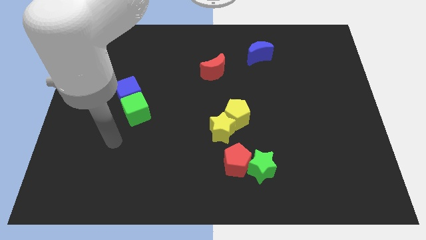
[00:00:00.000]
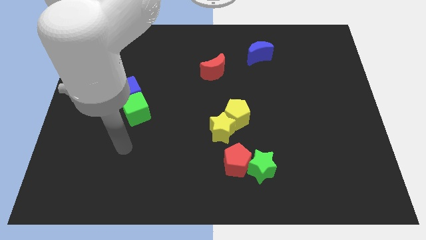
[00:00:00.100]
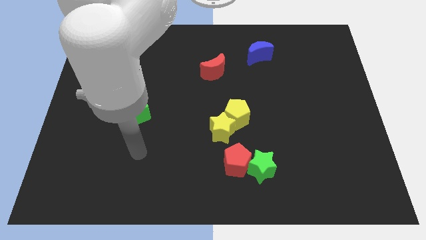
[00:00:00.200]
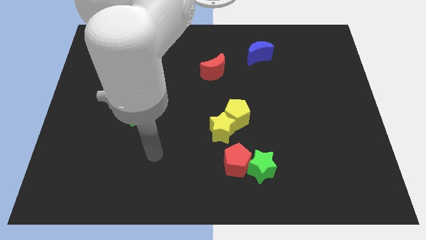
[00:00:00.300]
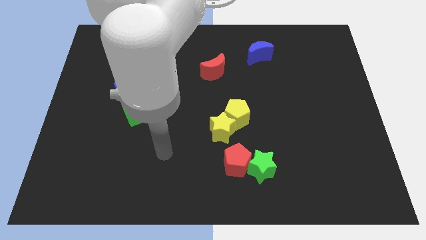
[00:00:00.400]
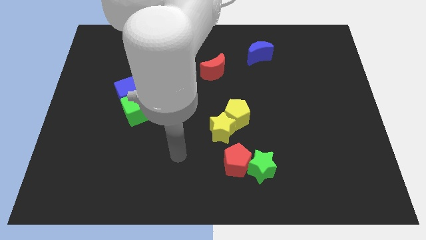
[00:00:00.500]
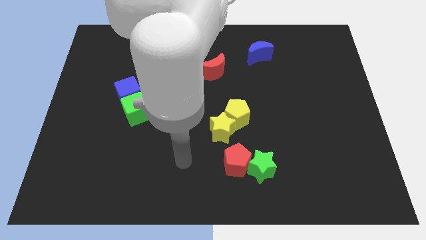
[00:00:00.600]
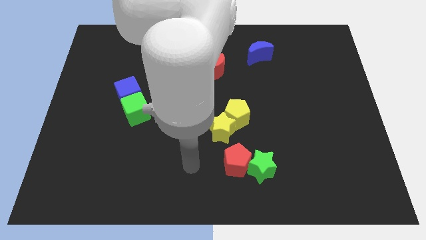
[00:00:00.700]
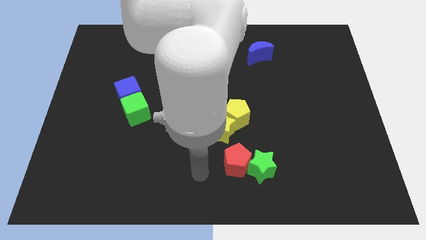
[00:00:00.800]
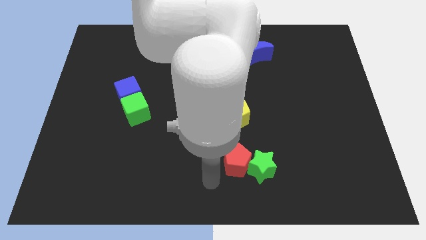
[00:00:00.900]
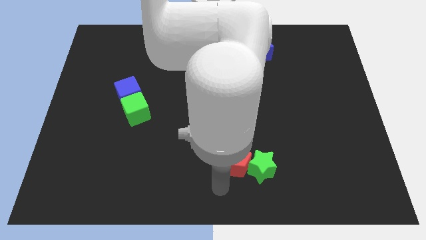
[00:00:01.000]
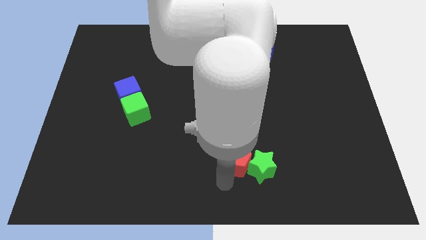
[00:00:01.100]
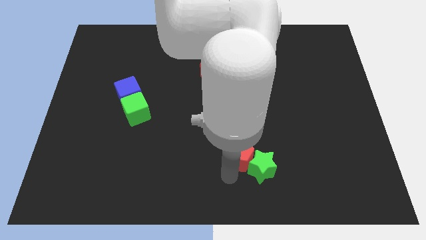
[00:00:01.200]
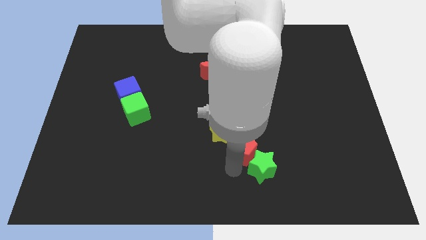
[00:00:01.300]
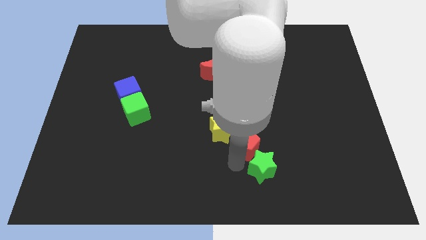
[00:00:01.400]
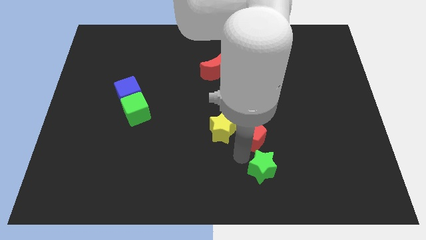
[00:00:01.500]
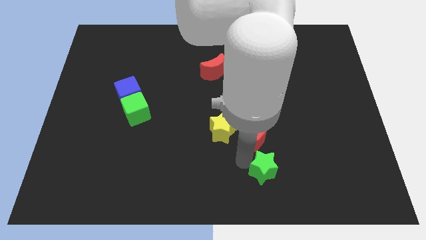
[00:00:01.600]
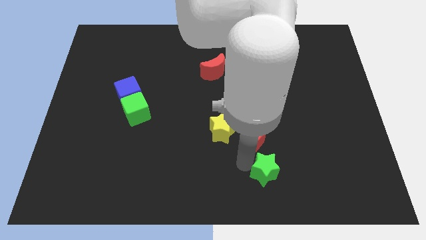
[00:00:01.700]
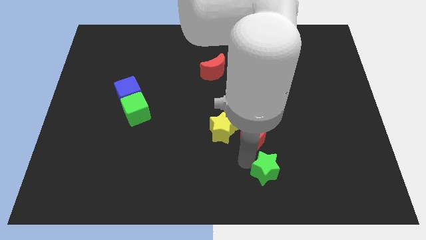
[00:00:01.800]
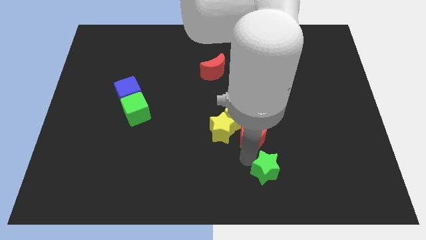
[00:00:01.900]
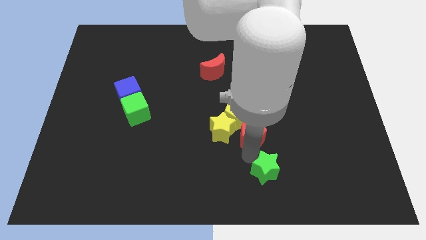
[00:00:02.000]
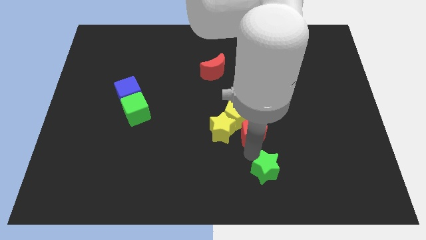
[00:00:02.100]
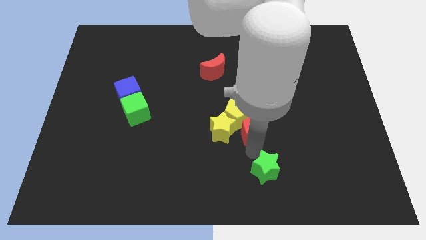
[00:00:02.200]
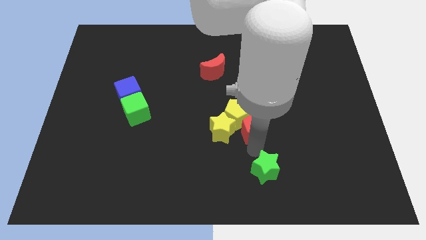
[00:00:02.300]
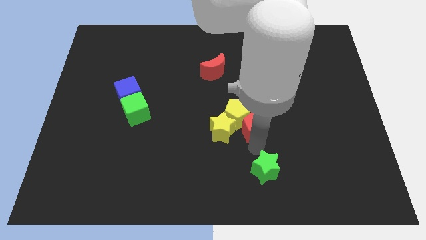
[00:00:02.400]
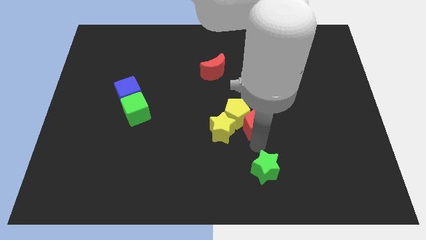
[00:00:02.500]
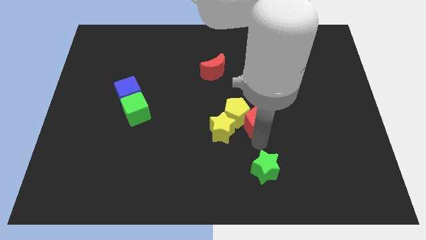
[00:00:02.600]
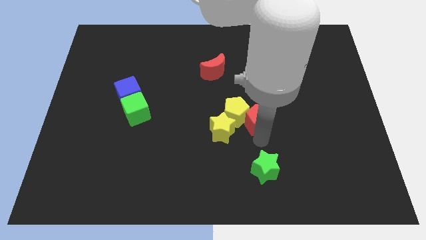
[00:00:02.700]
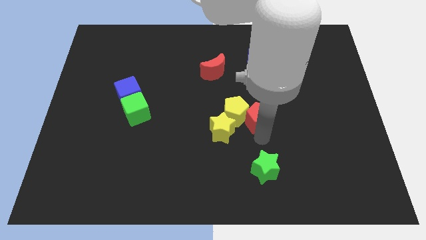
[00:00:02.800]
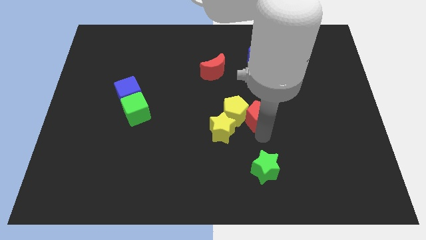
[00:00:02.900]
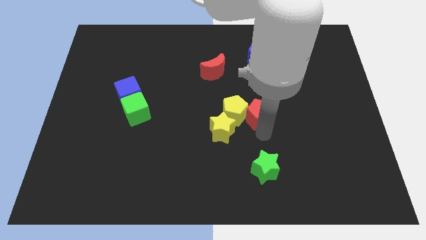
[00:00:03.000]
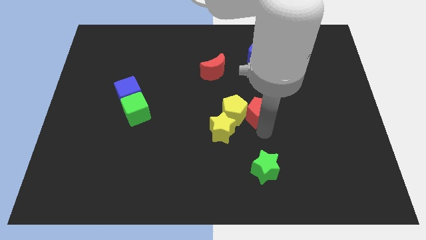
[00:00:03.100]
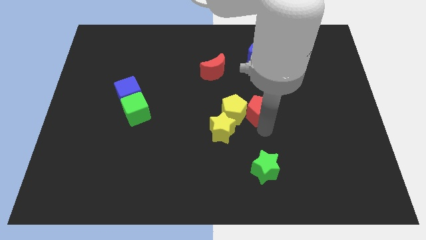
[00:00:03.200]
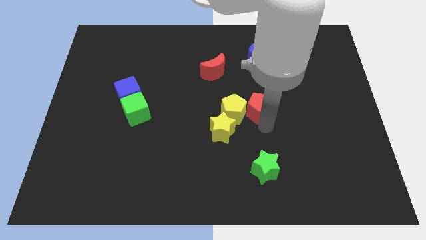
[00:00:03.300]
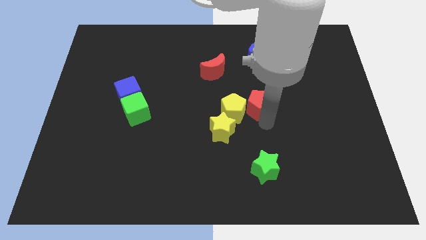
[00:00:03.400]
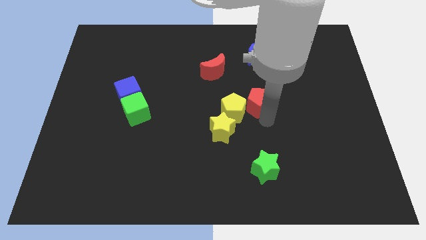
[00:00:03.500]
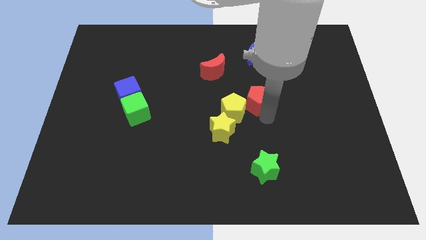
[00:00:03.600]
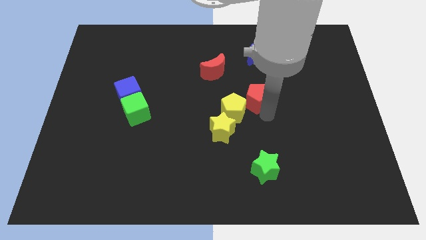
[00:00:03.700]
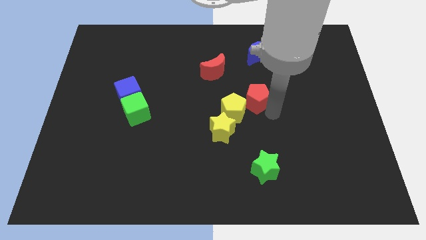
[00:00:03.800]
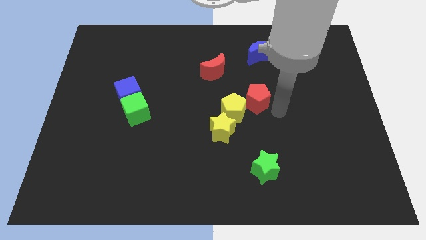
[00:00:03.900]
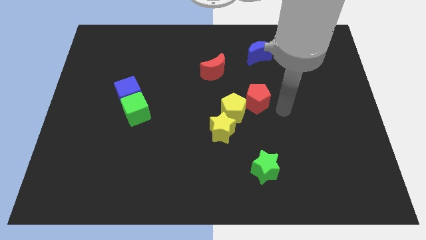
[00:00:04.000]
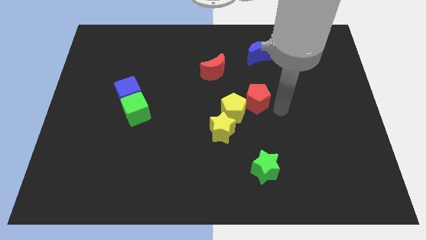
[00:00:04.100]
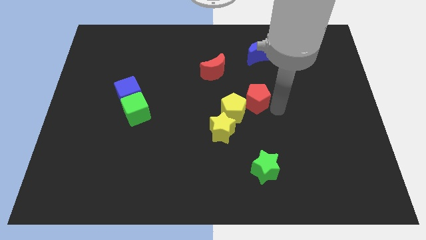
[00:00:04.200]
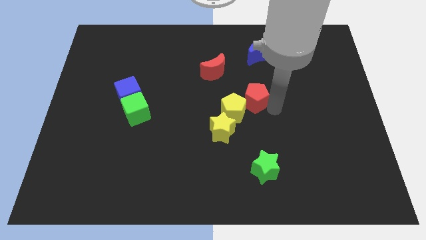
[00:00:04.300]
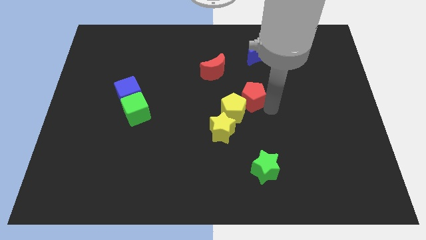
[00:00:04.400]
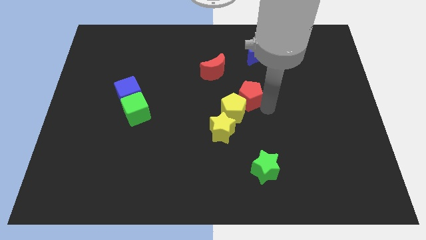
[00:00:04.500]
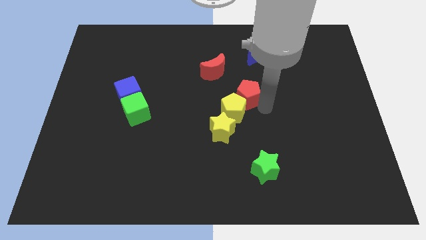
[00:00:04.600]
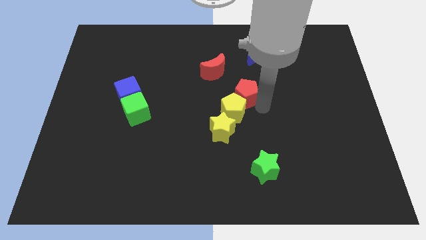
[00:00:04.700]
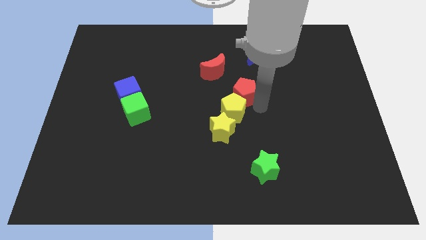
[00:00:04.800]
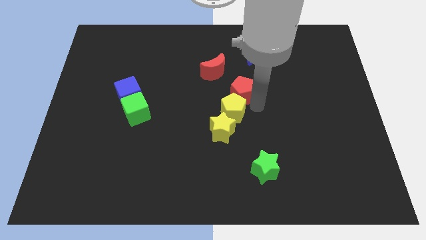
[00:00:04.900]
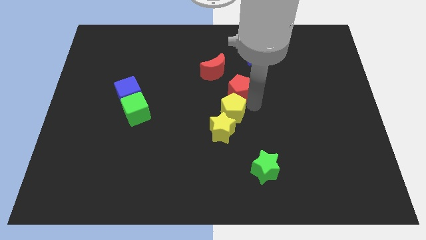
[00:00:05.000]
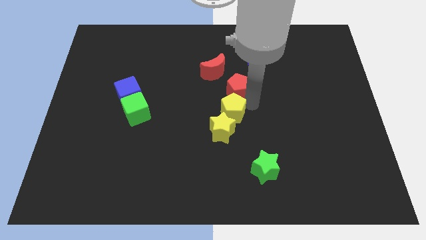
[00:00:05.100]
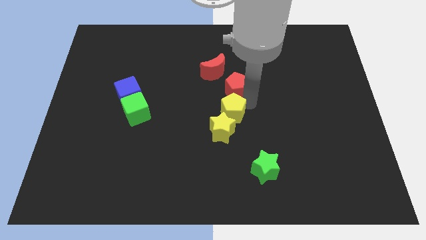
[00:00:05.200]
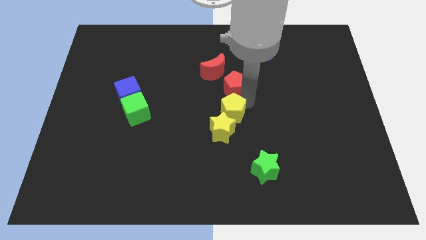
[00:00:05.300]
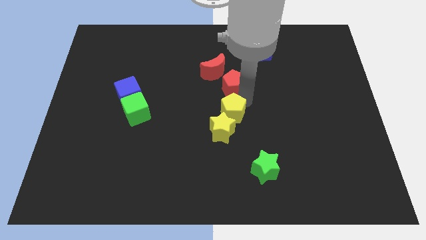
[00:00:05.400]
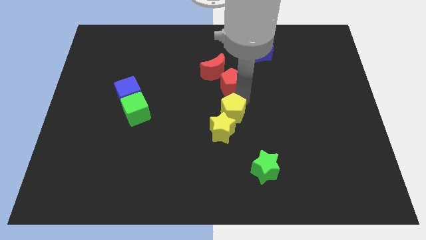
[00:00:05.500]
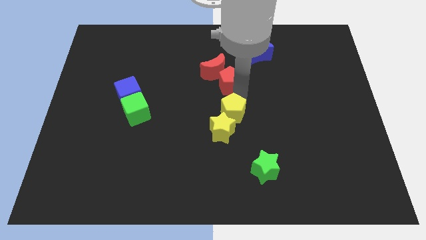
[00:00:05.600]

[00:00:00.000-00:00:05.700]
slide the red pentagon next to the red moon
